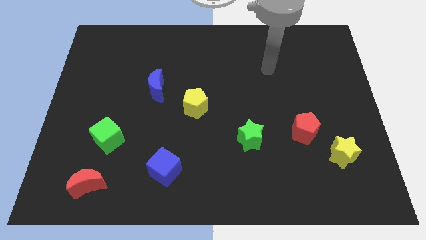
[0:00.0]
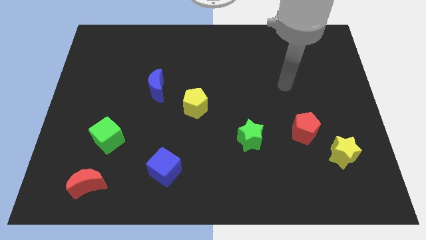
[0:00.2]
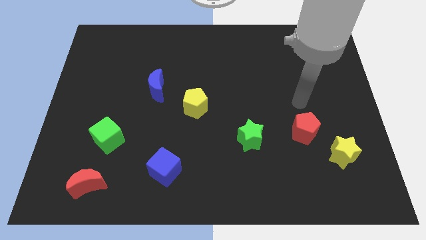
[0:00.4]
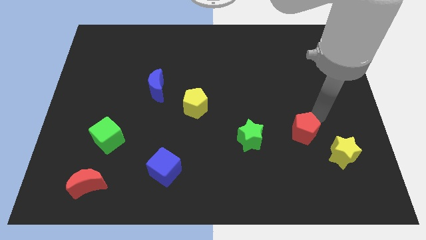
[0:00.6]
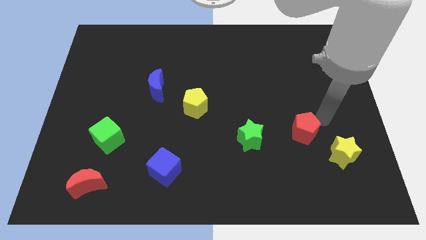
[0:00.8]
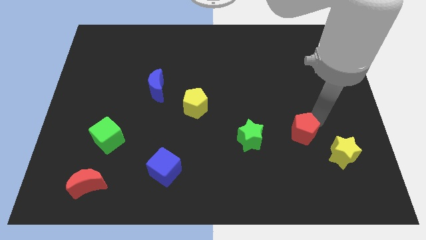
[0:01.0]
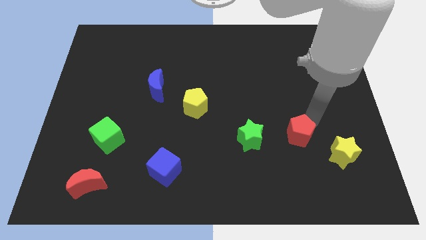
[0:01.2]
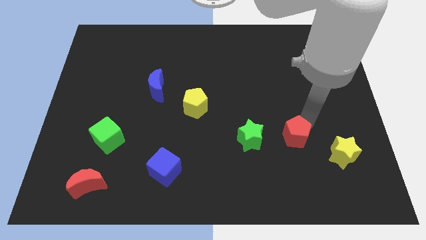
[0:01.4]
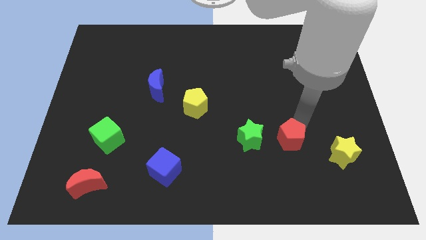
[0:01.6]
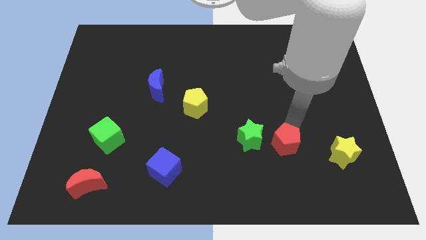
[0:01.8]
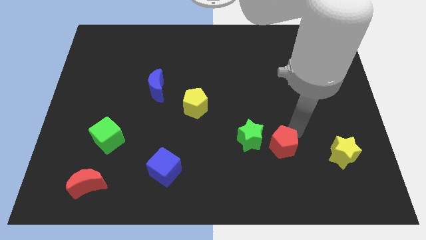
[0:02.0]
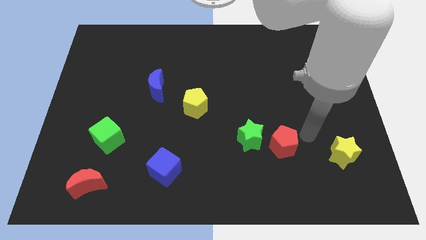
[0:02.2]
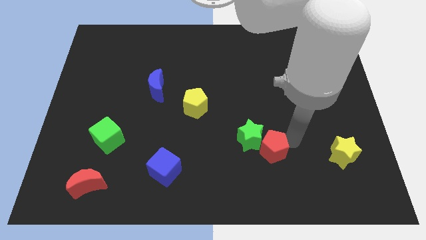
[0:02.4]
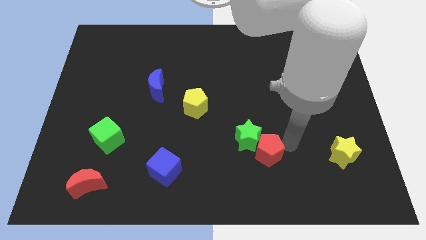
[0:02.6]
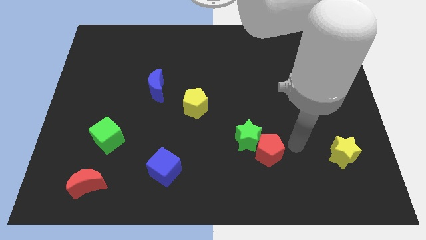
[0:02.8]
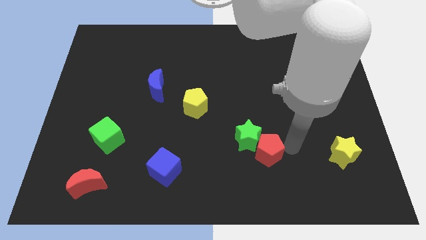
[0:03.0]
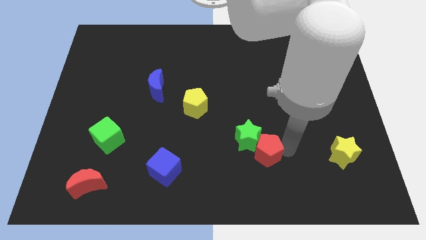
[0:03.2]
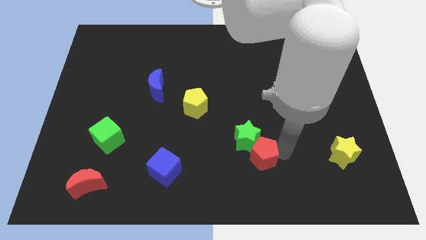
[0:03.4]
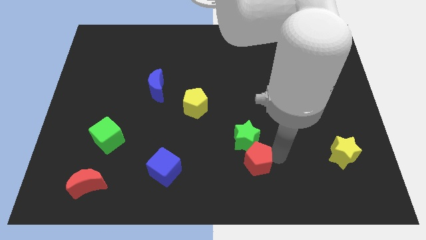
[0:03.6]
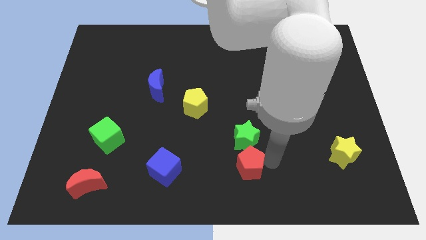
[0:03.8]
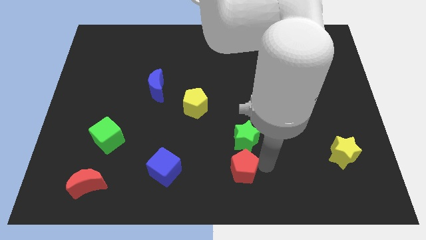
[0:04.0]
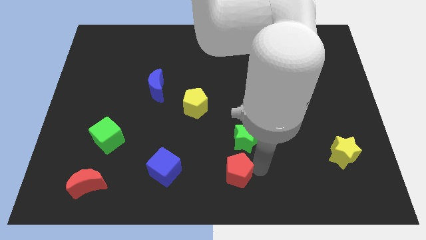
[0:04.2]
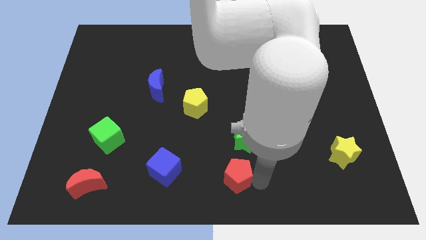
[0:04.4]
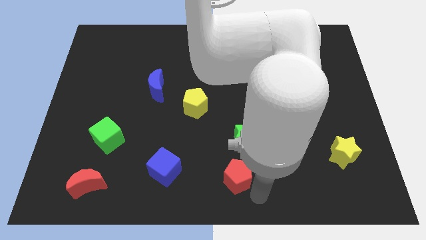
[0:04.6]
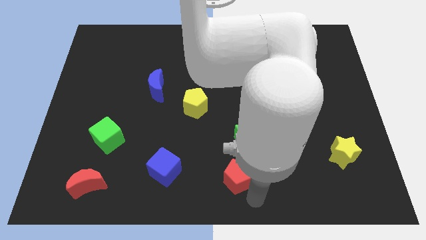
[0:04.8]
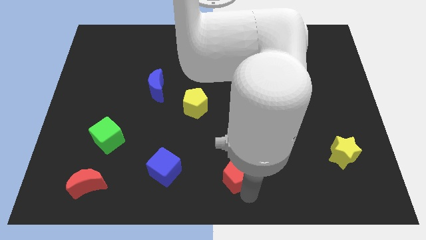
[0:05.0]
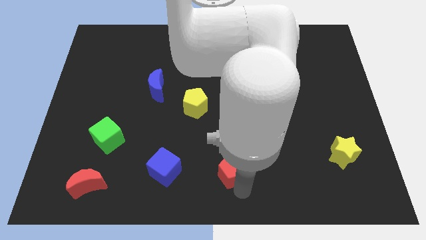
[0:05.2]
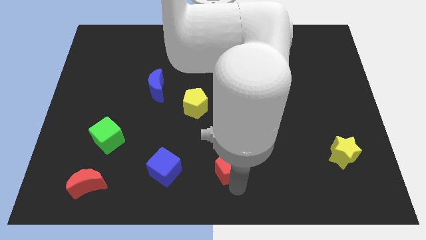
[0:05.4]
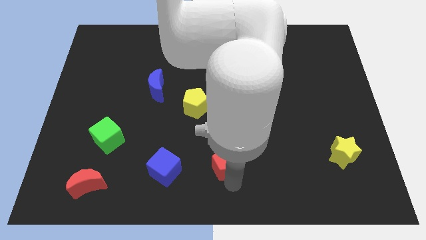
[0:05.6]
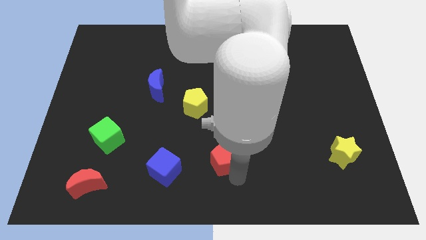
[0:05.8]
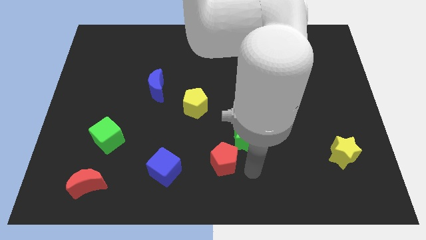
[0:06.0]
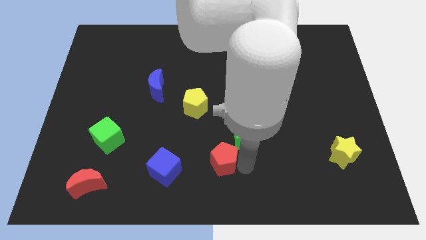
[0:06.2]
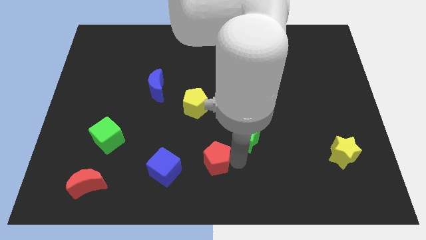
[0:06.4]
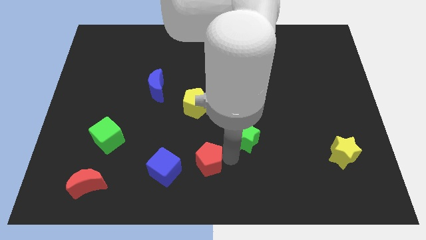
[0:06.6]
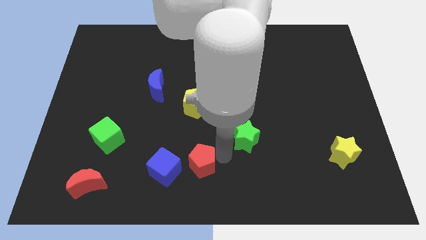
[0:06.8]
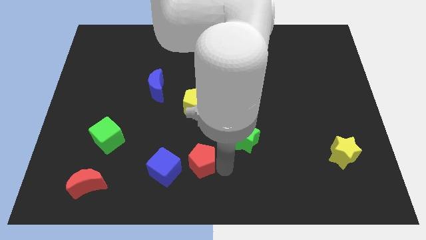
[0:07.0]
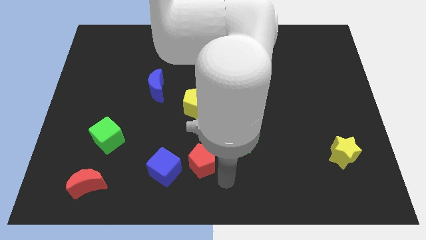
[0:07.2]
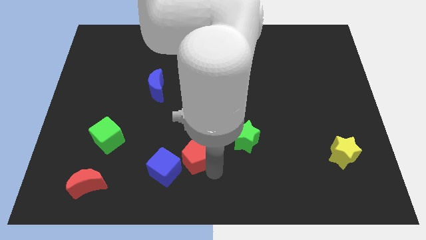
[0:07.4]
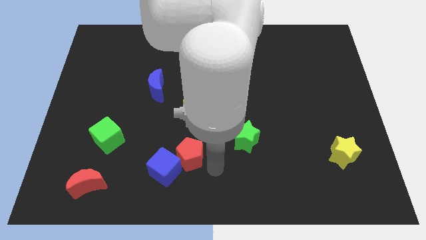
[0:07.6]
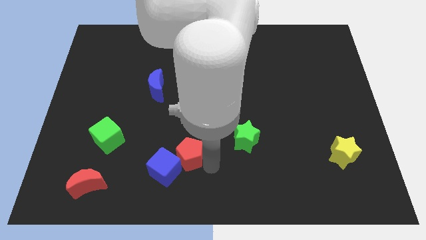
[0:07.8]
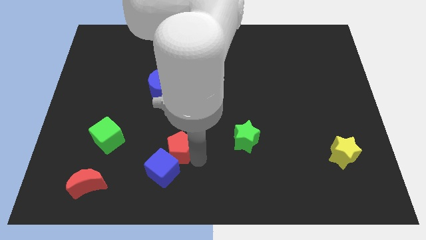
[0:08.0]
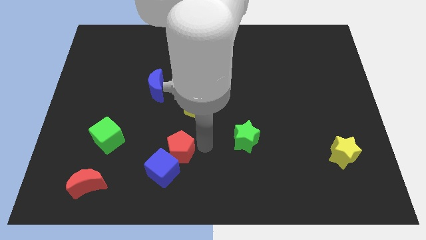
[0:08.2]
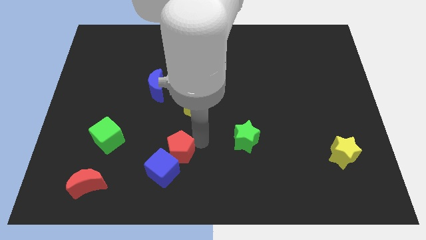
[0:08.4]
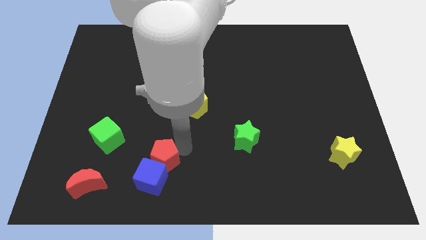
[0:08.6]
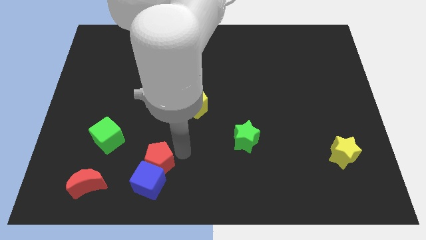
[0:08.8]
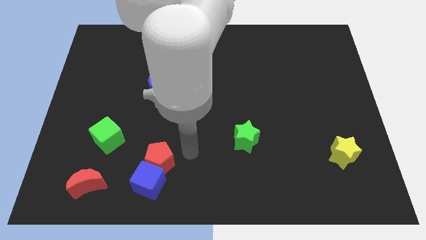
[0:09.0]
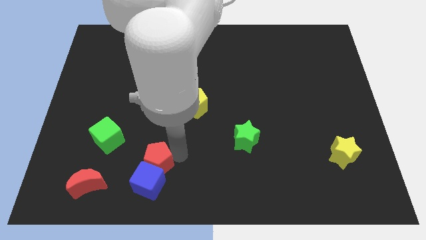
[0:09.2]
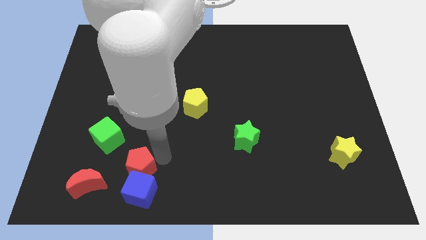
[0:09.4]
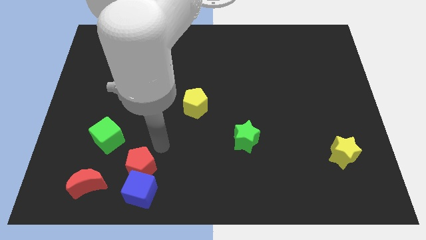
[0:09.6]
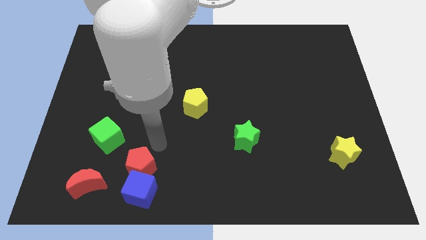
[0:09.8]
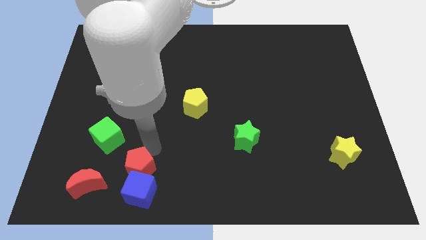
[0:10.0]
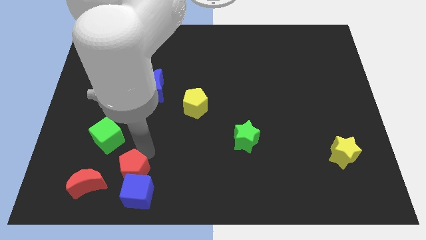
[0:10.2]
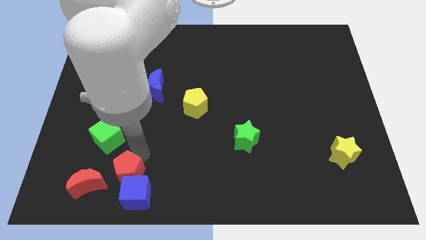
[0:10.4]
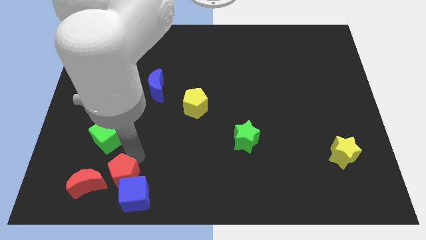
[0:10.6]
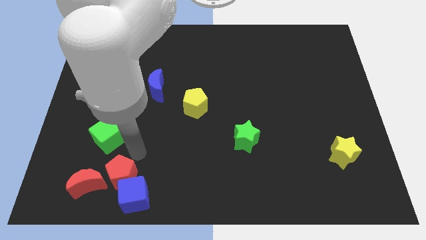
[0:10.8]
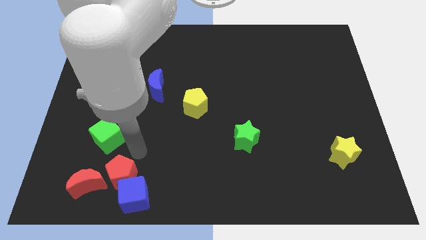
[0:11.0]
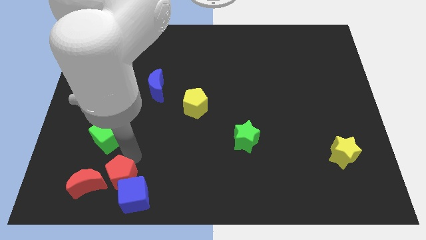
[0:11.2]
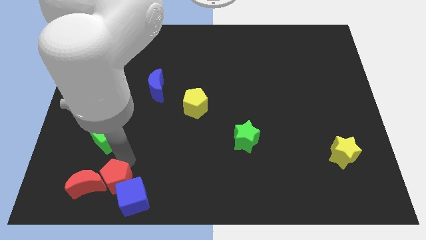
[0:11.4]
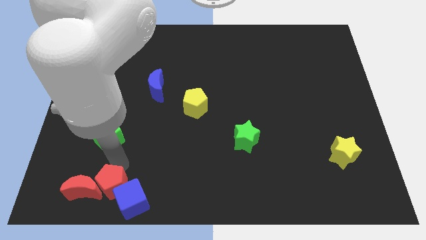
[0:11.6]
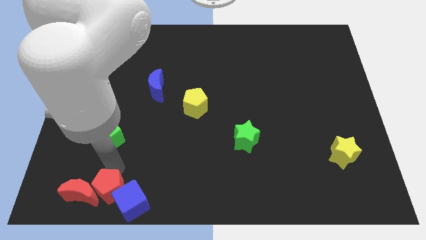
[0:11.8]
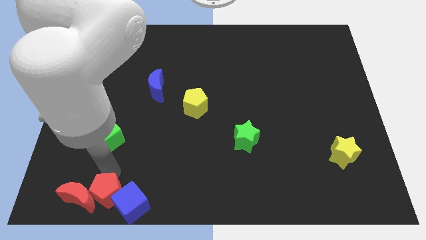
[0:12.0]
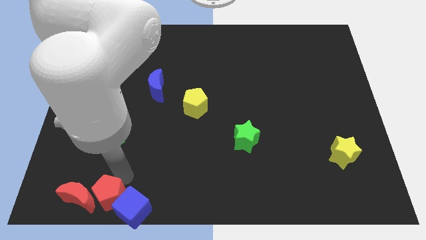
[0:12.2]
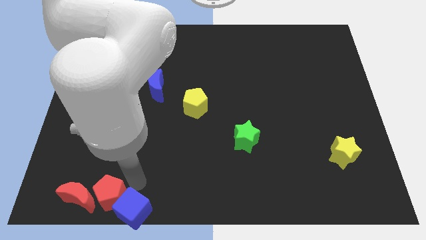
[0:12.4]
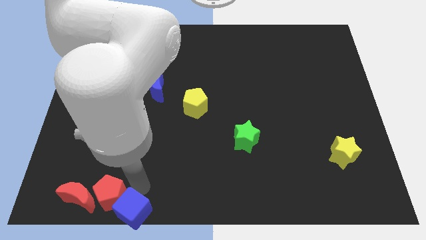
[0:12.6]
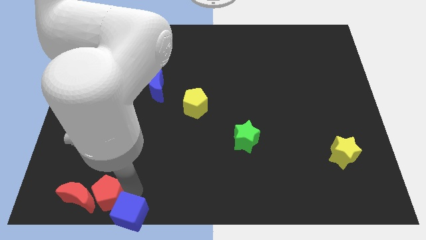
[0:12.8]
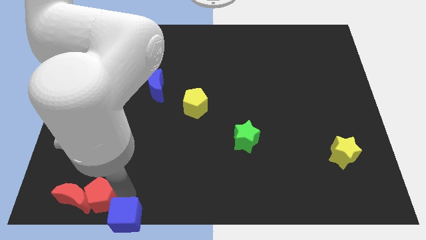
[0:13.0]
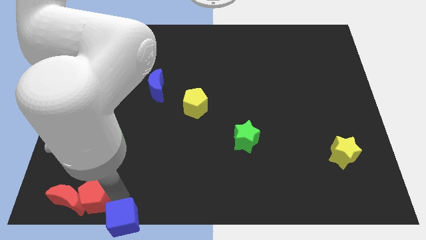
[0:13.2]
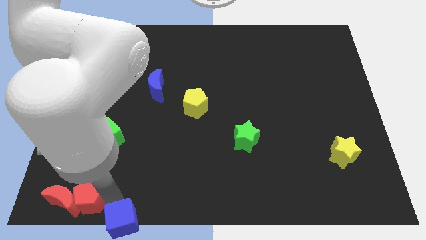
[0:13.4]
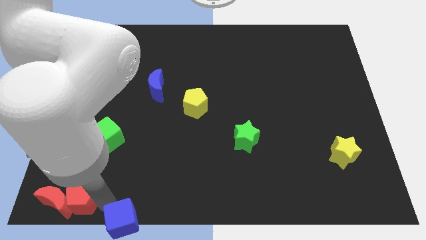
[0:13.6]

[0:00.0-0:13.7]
move the red pentagon to the bottom left corner
